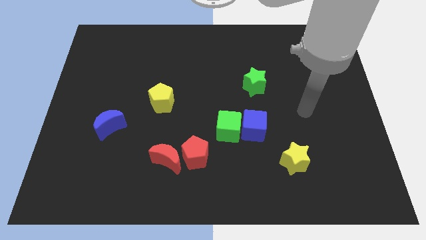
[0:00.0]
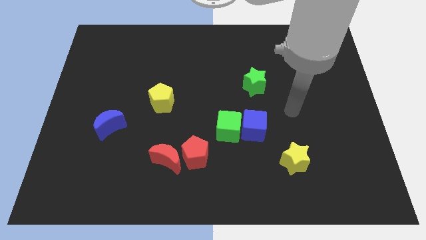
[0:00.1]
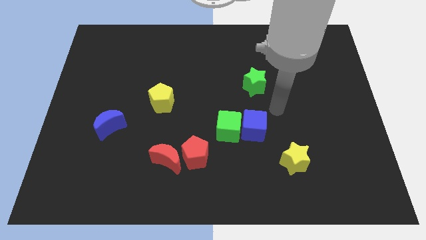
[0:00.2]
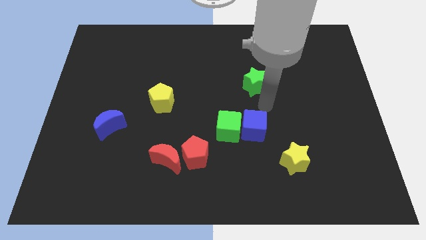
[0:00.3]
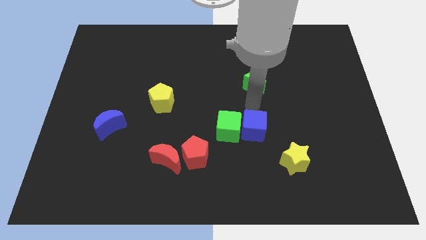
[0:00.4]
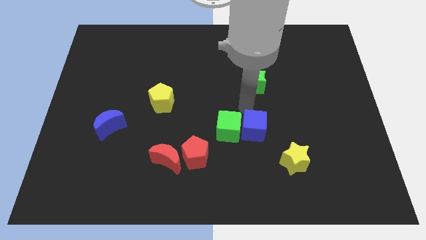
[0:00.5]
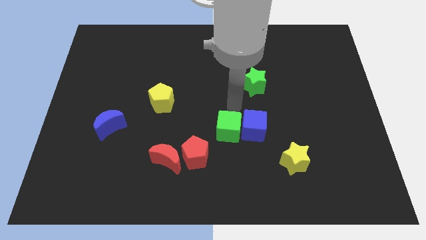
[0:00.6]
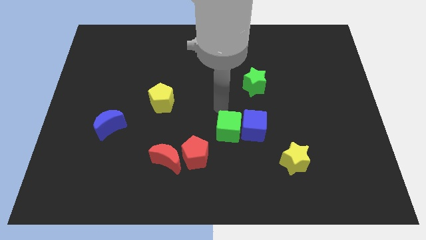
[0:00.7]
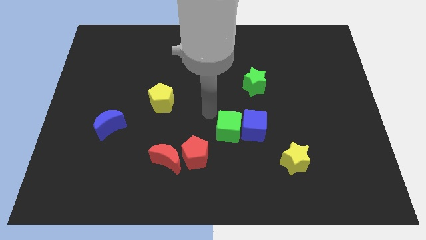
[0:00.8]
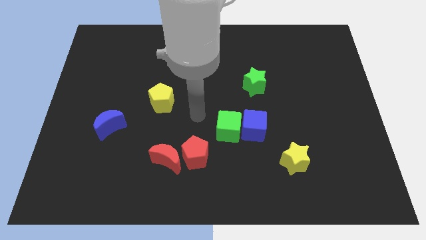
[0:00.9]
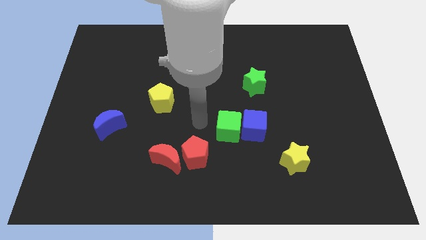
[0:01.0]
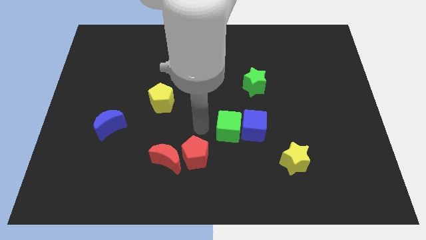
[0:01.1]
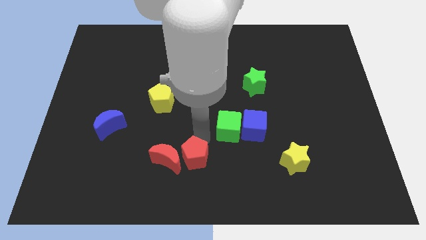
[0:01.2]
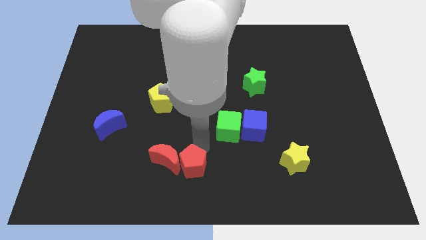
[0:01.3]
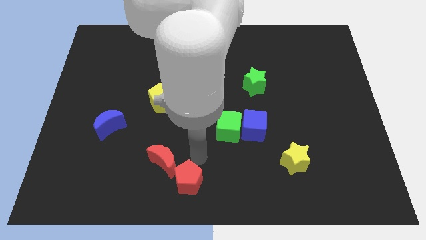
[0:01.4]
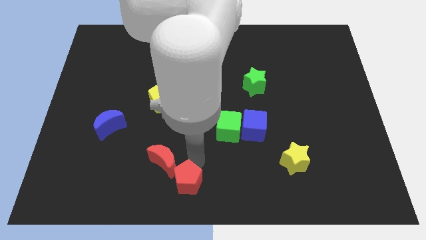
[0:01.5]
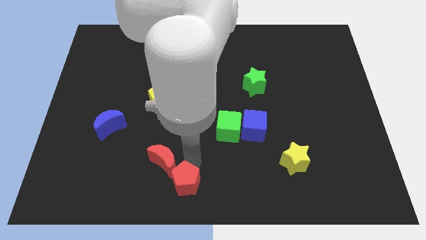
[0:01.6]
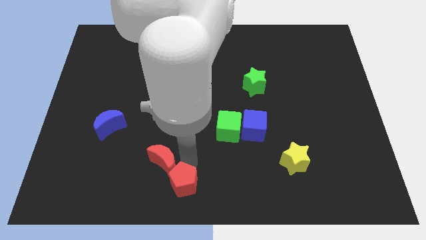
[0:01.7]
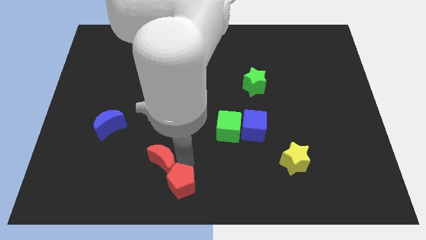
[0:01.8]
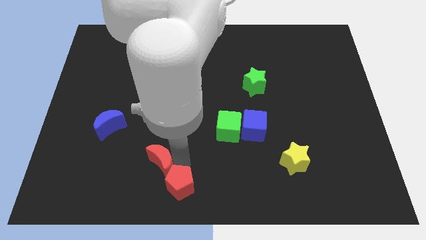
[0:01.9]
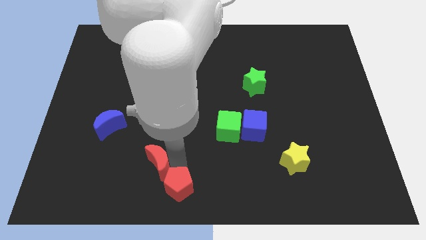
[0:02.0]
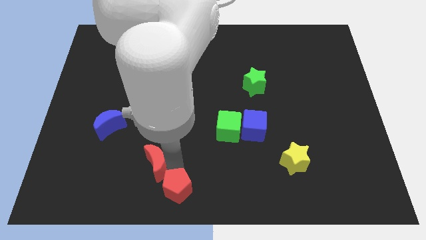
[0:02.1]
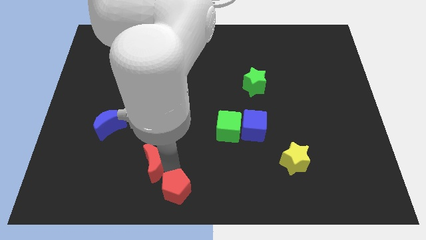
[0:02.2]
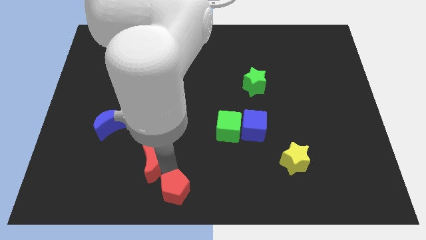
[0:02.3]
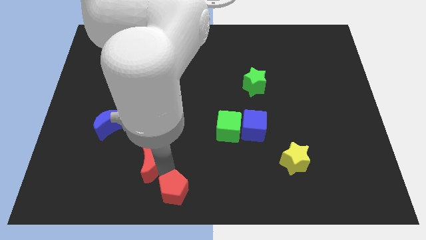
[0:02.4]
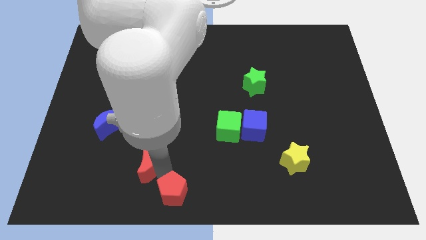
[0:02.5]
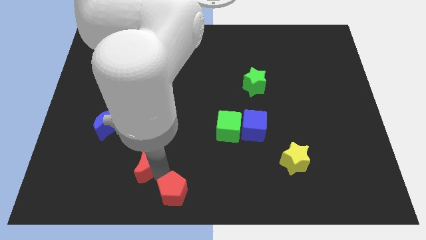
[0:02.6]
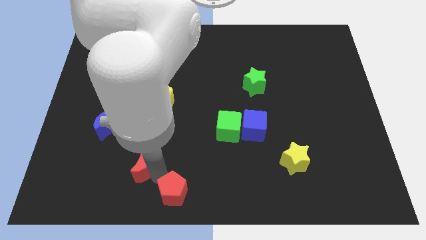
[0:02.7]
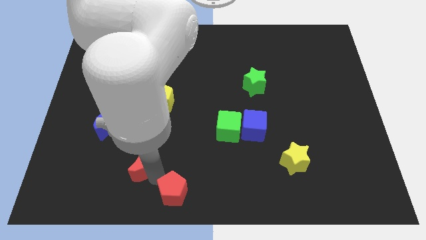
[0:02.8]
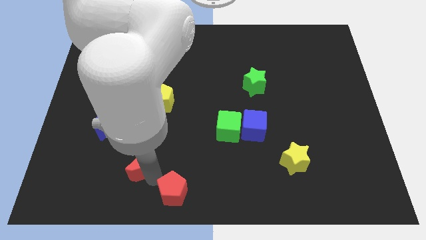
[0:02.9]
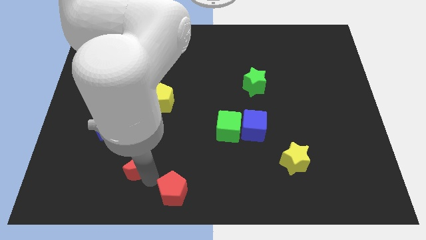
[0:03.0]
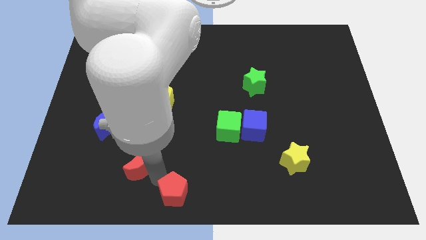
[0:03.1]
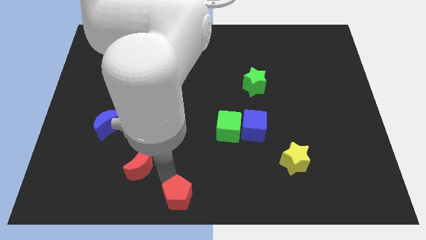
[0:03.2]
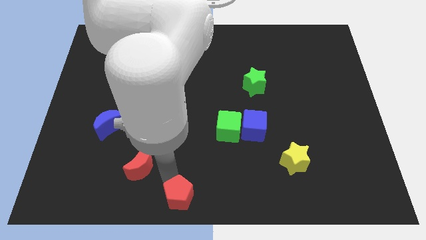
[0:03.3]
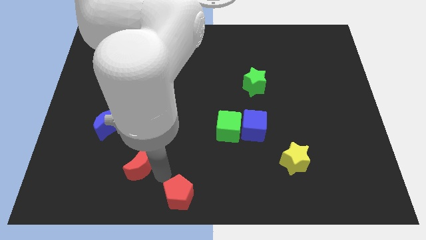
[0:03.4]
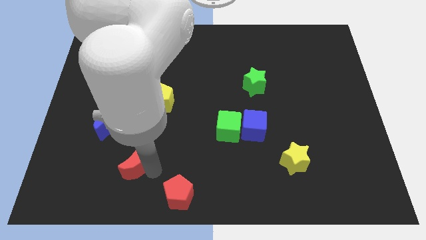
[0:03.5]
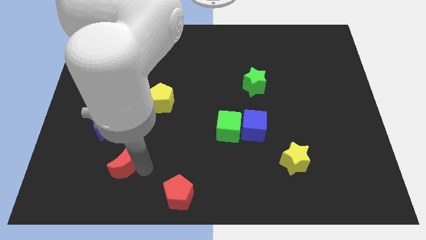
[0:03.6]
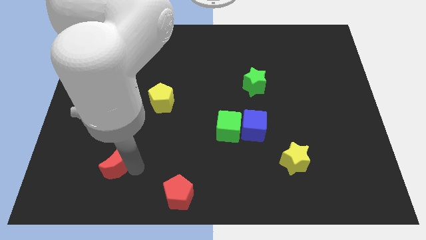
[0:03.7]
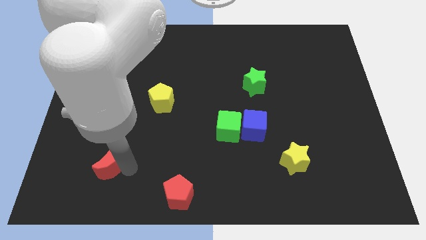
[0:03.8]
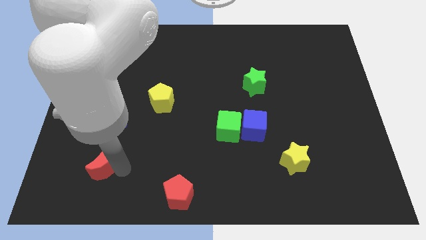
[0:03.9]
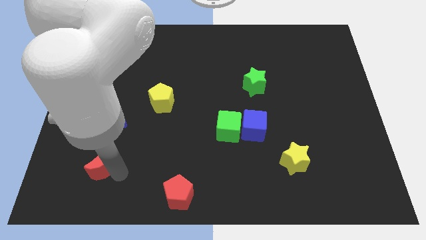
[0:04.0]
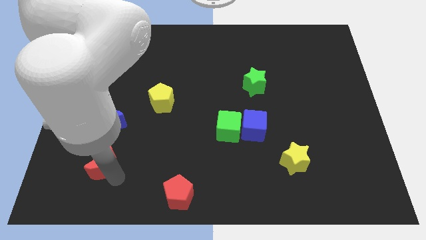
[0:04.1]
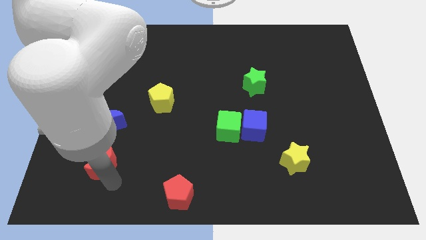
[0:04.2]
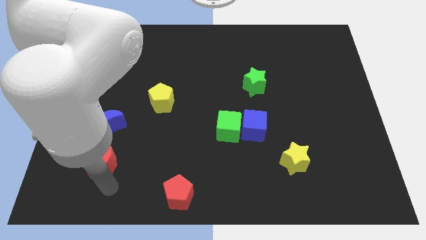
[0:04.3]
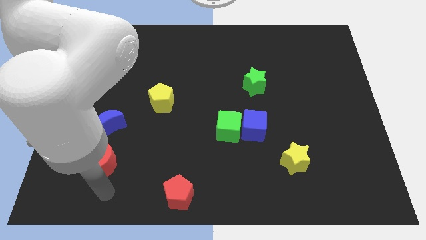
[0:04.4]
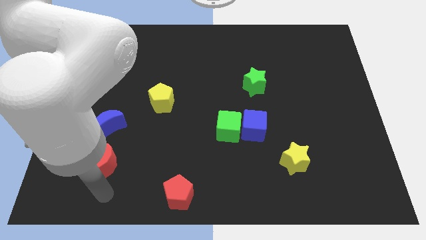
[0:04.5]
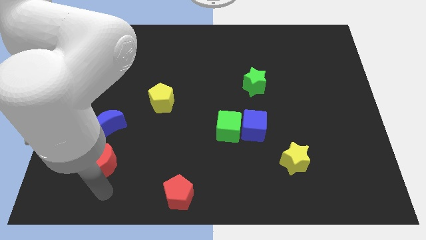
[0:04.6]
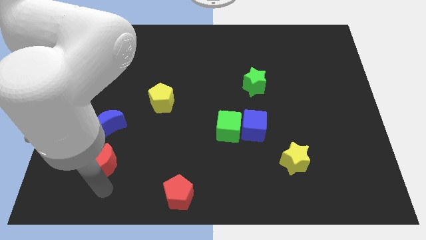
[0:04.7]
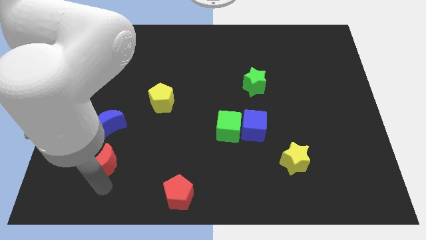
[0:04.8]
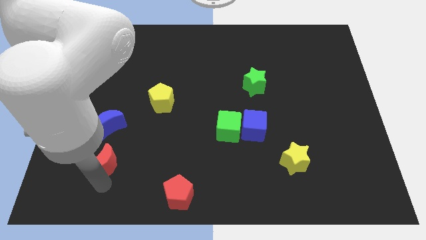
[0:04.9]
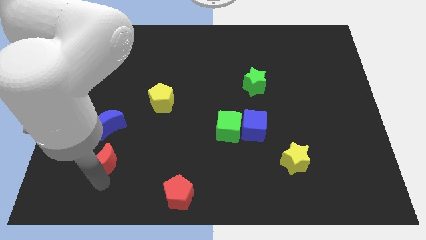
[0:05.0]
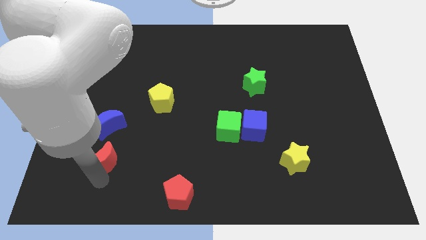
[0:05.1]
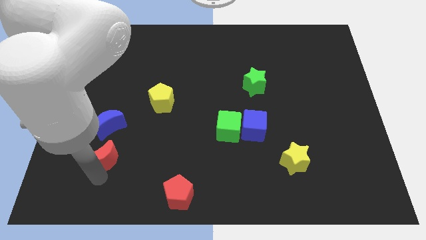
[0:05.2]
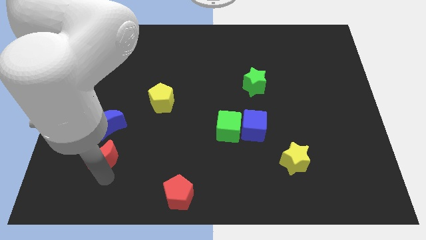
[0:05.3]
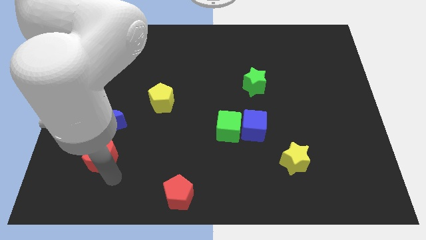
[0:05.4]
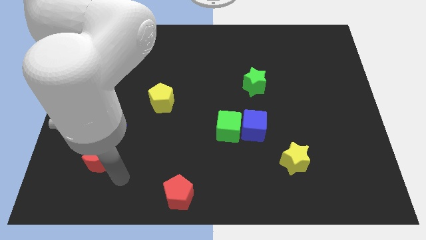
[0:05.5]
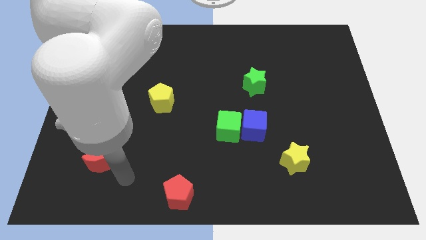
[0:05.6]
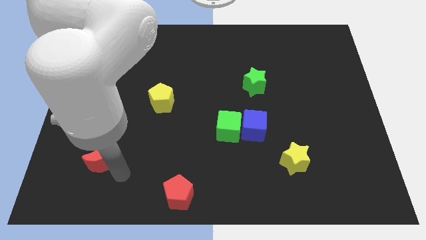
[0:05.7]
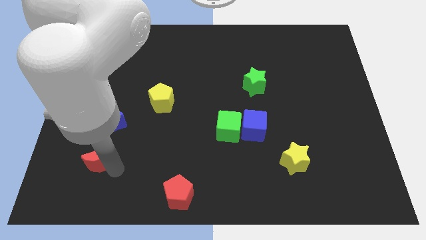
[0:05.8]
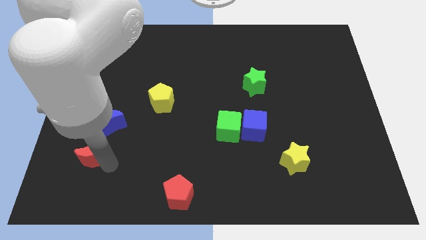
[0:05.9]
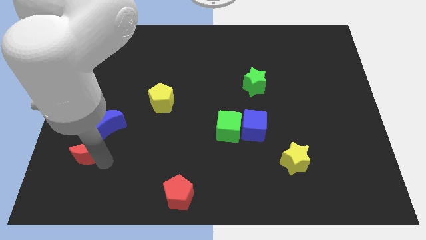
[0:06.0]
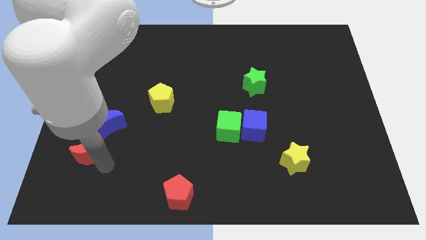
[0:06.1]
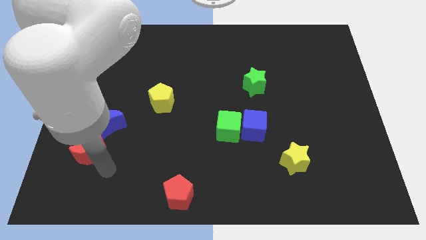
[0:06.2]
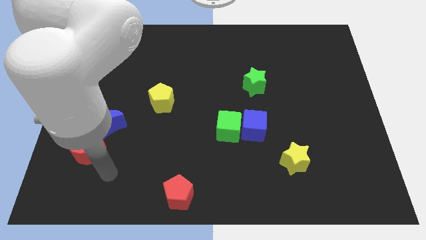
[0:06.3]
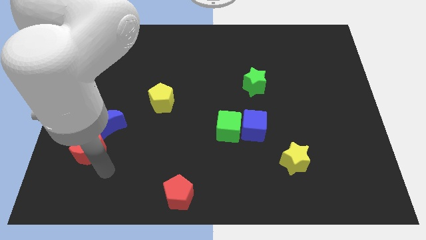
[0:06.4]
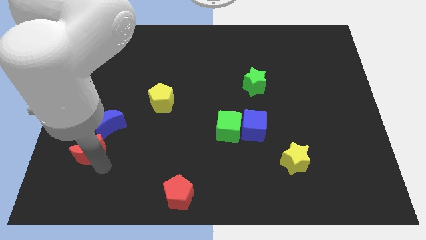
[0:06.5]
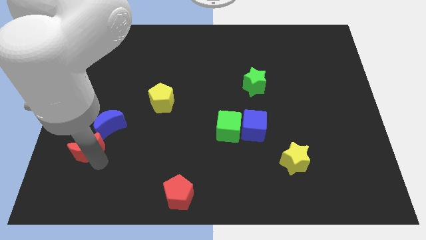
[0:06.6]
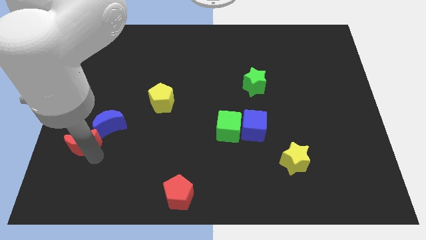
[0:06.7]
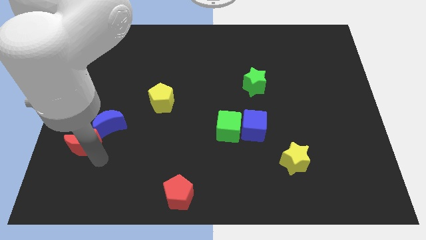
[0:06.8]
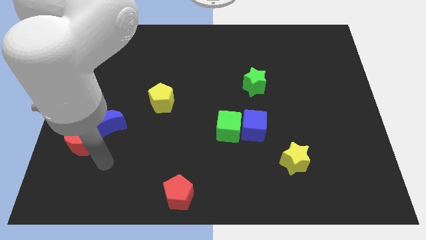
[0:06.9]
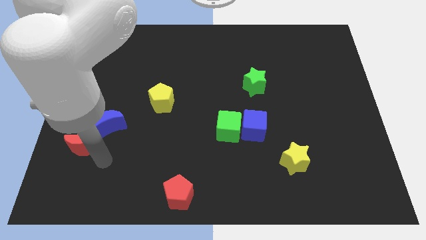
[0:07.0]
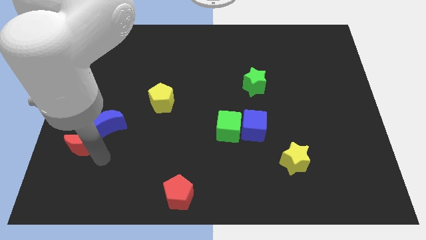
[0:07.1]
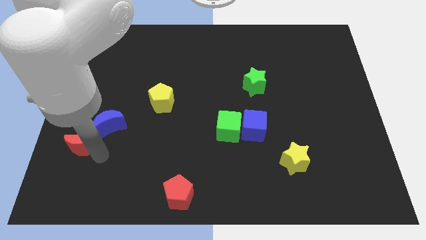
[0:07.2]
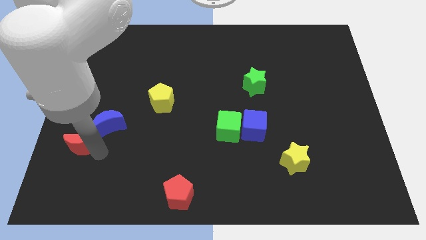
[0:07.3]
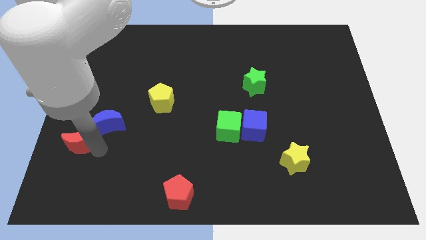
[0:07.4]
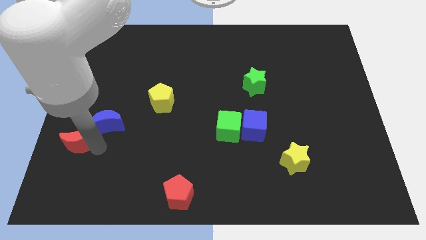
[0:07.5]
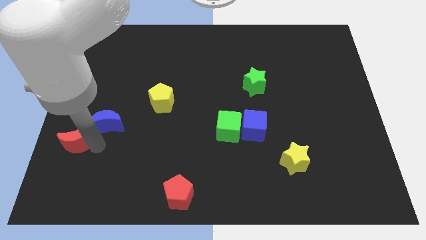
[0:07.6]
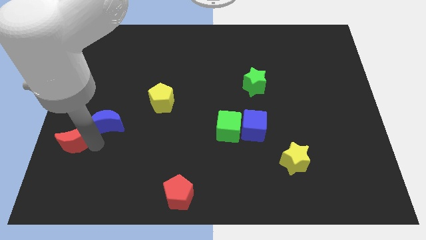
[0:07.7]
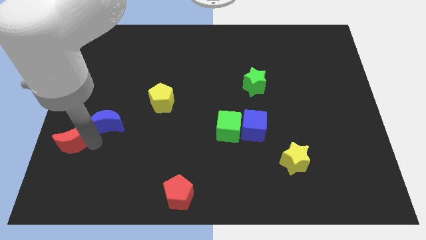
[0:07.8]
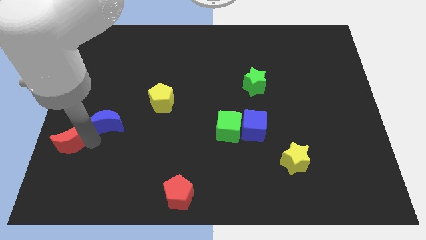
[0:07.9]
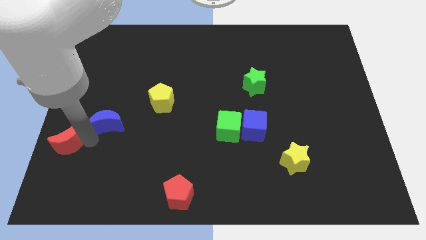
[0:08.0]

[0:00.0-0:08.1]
push the red moon to the left side of the board
